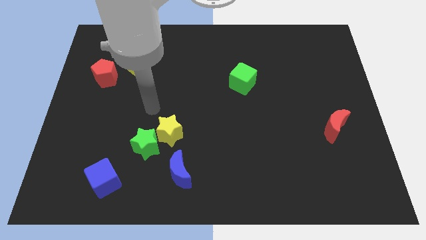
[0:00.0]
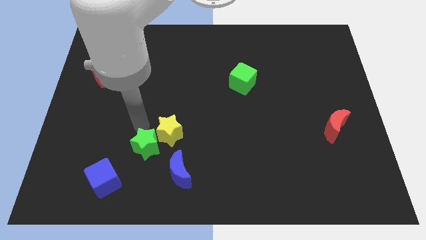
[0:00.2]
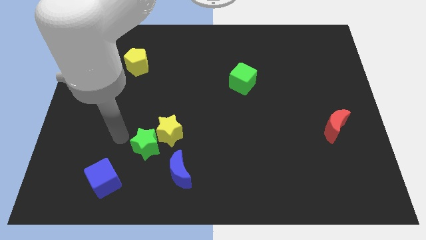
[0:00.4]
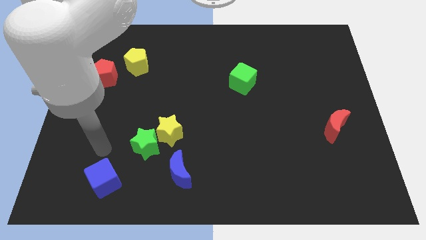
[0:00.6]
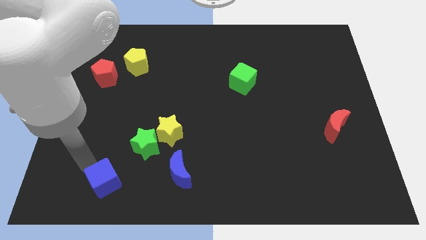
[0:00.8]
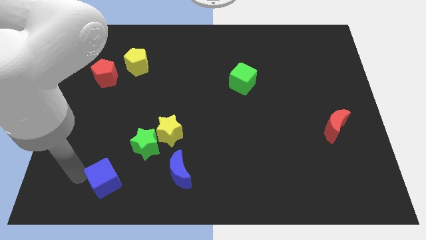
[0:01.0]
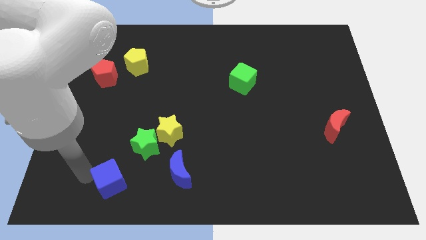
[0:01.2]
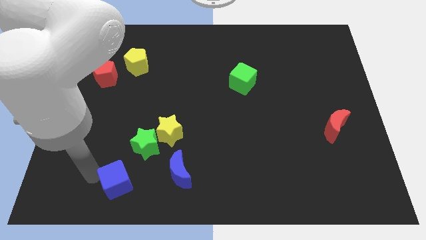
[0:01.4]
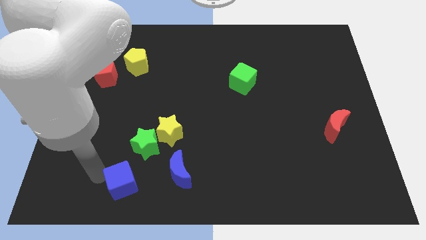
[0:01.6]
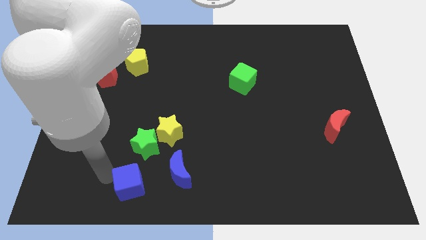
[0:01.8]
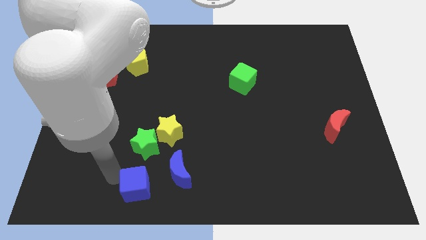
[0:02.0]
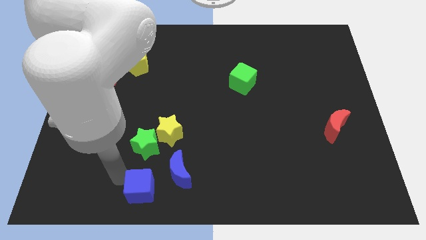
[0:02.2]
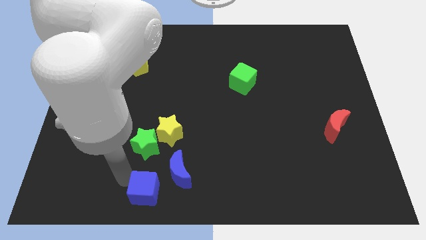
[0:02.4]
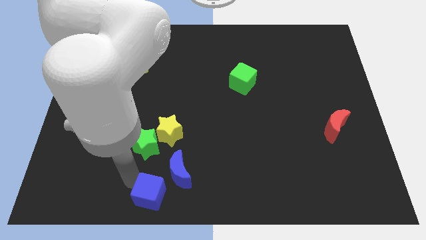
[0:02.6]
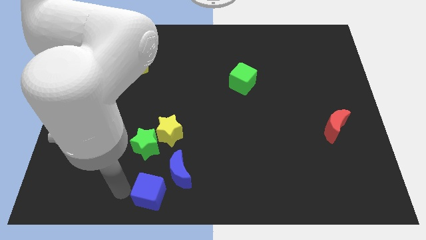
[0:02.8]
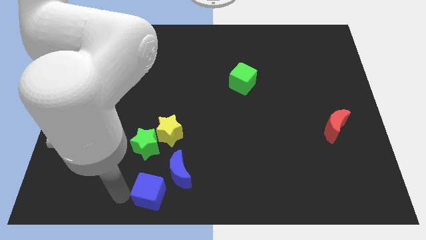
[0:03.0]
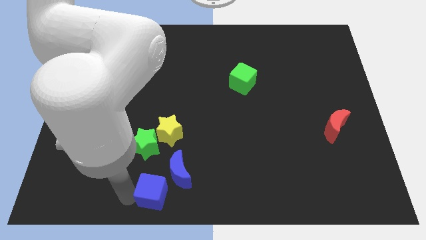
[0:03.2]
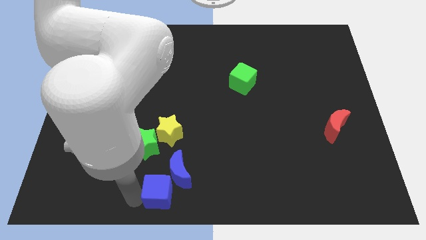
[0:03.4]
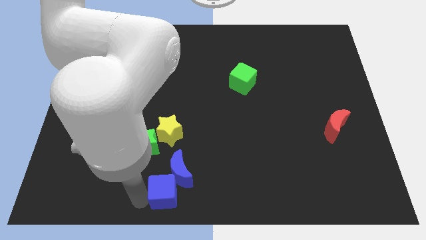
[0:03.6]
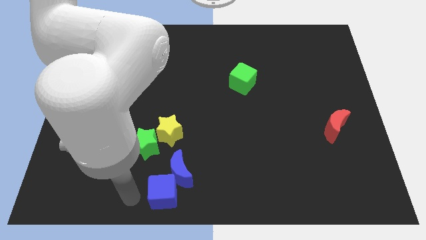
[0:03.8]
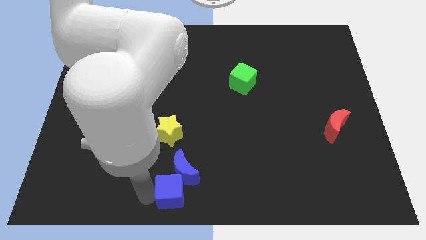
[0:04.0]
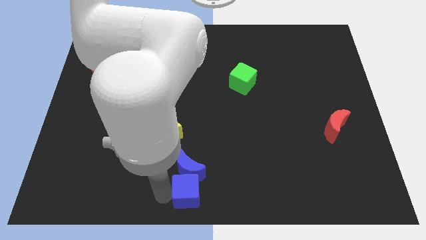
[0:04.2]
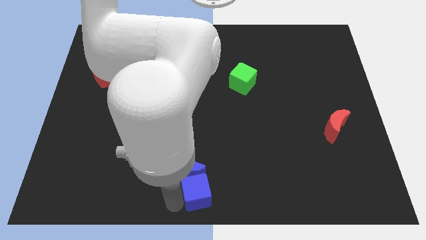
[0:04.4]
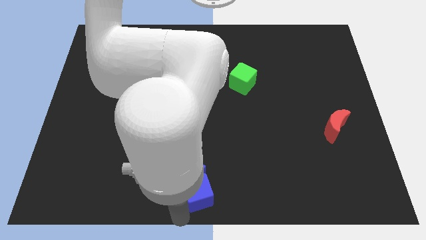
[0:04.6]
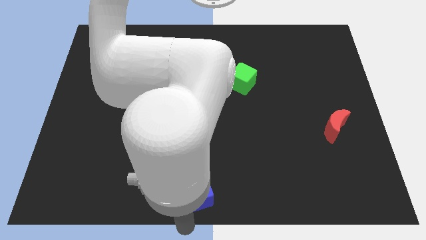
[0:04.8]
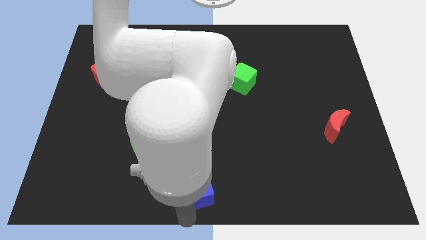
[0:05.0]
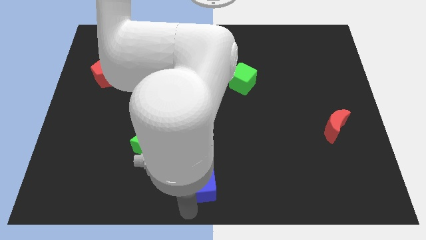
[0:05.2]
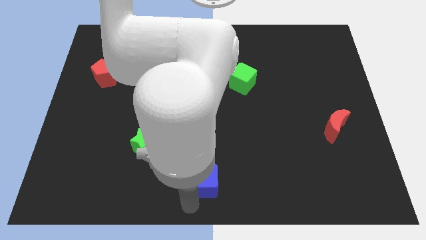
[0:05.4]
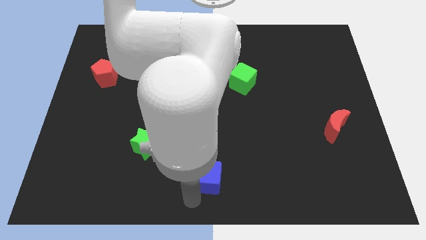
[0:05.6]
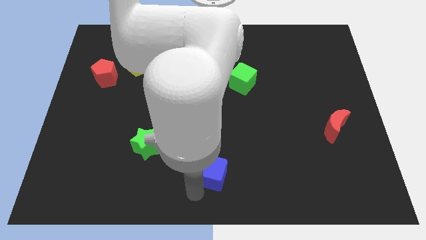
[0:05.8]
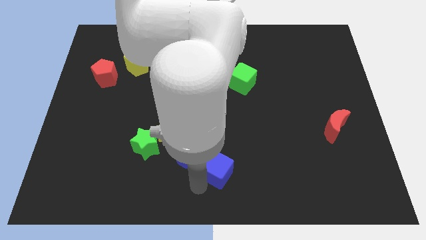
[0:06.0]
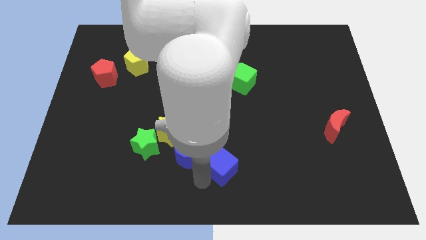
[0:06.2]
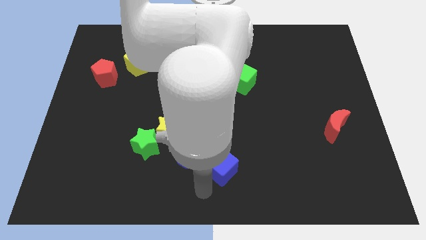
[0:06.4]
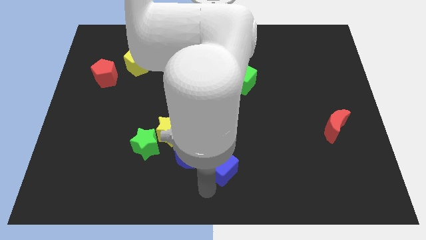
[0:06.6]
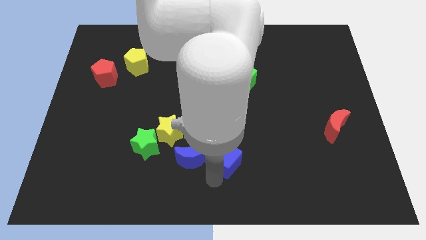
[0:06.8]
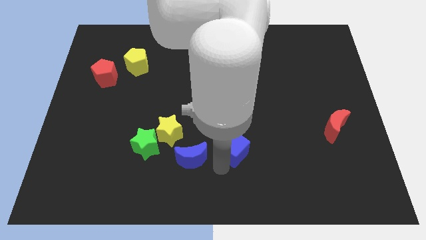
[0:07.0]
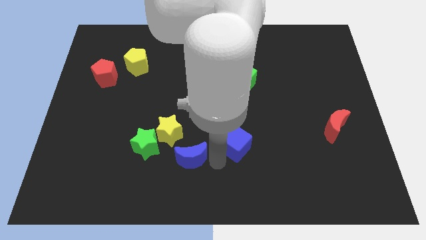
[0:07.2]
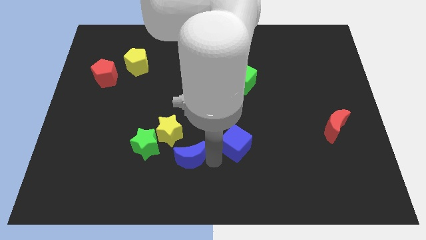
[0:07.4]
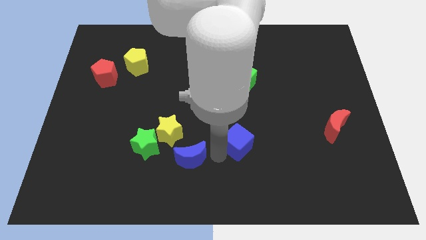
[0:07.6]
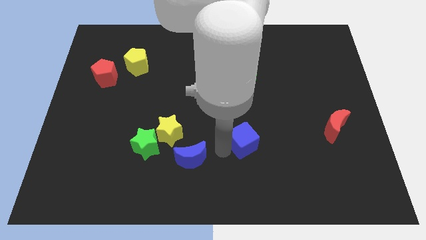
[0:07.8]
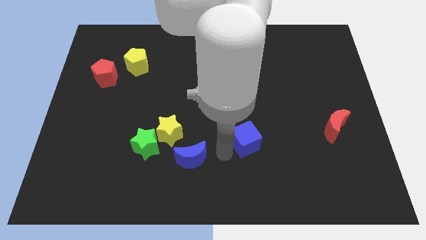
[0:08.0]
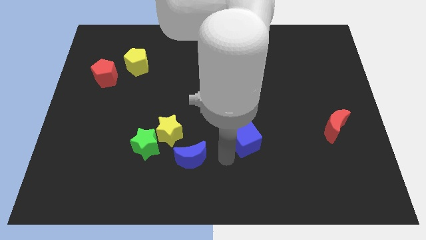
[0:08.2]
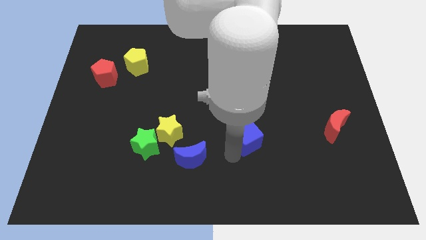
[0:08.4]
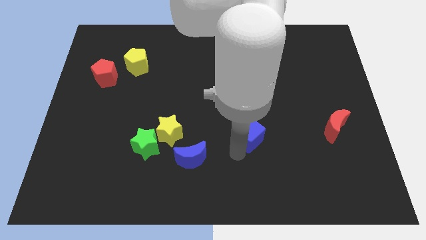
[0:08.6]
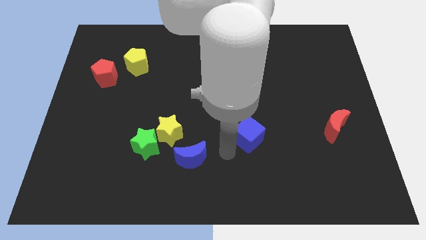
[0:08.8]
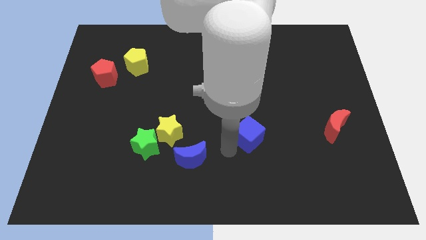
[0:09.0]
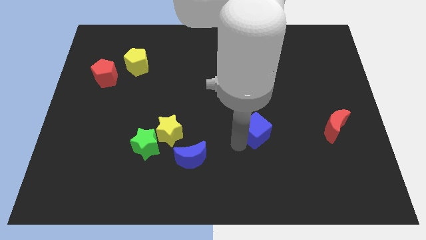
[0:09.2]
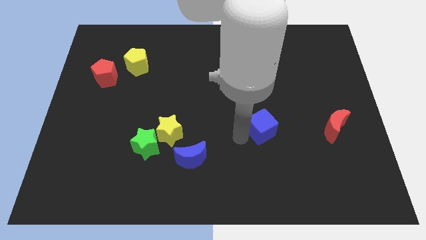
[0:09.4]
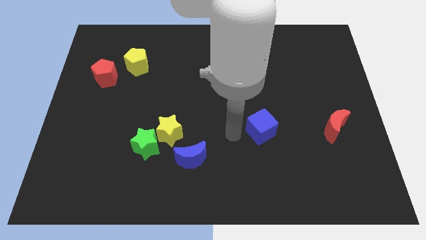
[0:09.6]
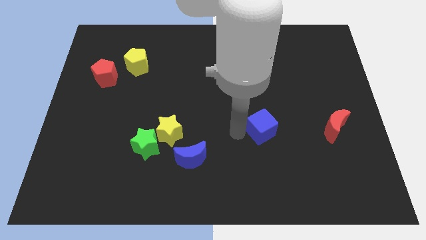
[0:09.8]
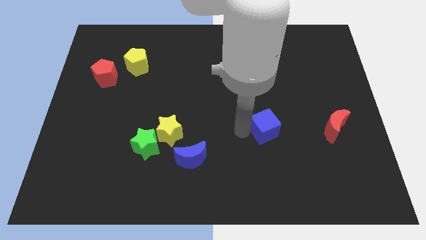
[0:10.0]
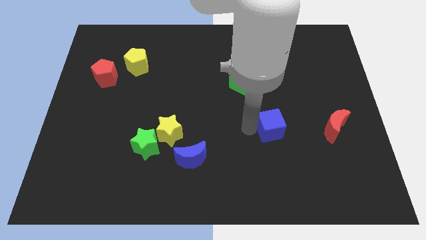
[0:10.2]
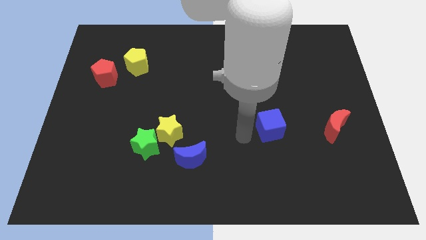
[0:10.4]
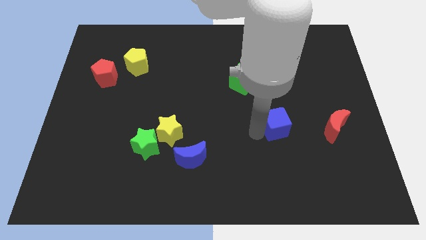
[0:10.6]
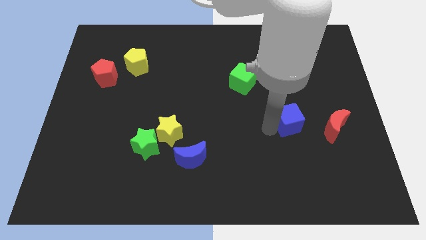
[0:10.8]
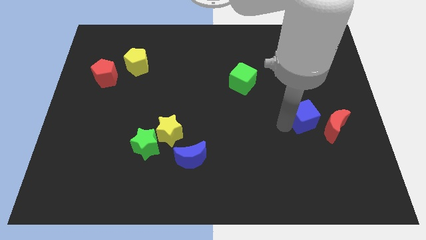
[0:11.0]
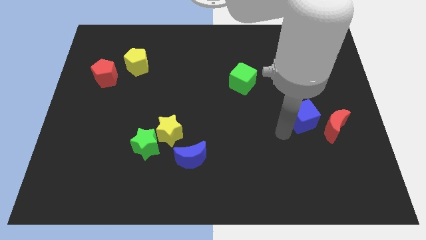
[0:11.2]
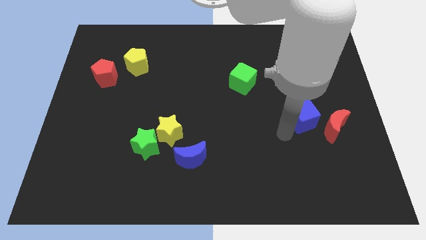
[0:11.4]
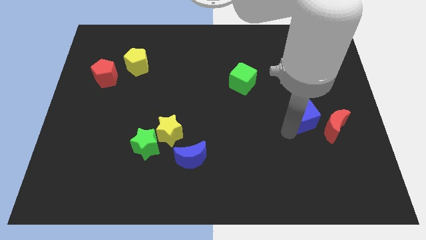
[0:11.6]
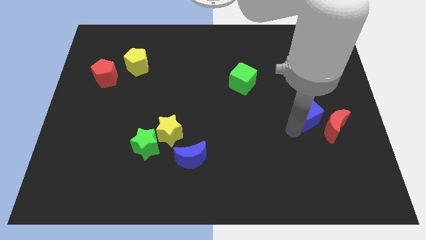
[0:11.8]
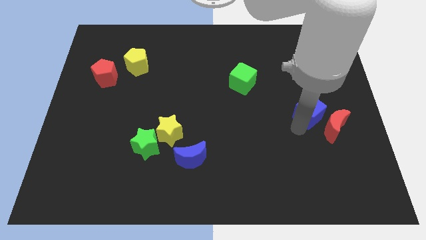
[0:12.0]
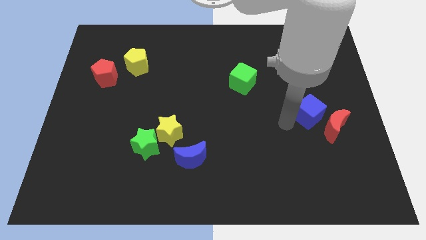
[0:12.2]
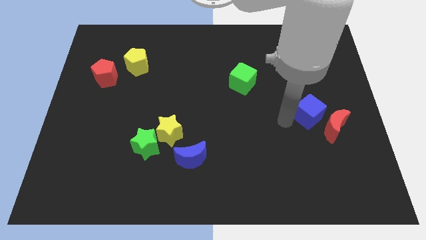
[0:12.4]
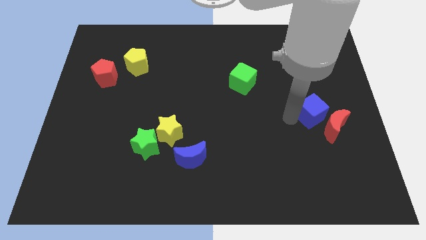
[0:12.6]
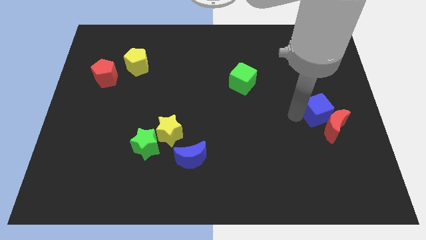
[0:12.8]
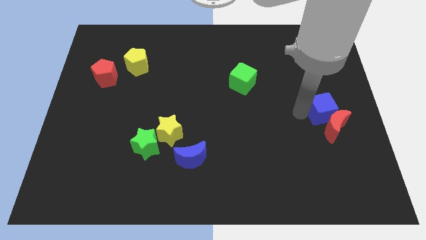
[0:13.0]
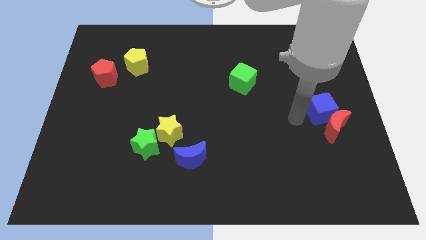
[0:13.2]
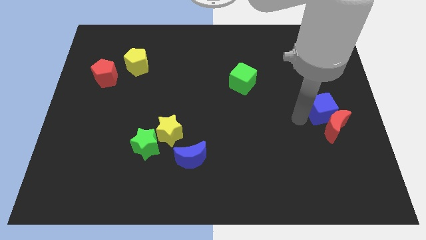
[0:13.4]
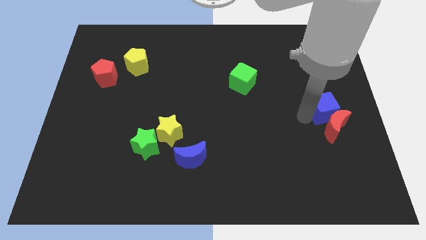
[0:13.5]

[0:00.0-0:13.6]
put the blue cube to the right side

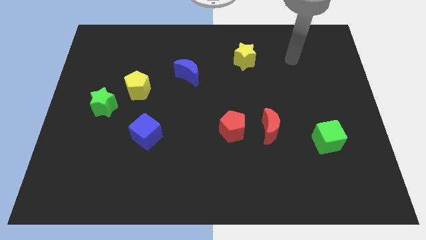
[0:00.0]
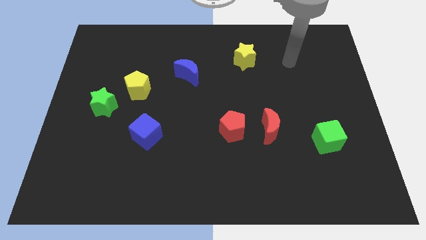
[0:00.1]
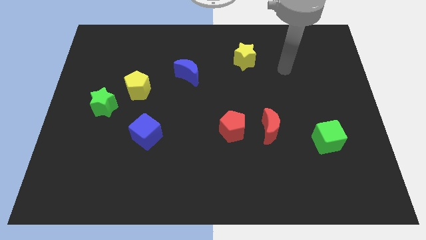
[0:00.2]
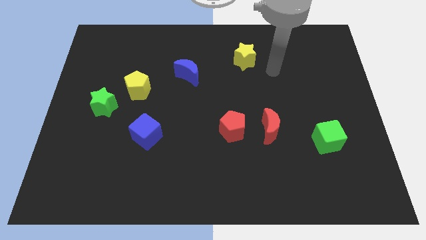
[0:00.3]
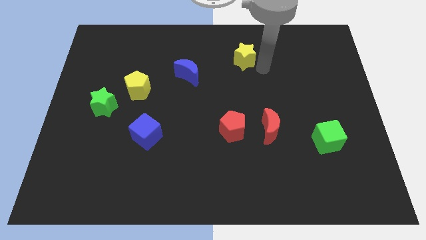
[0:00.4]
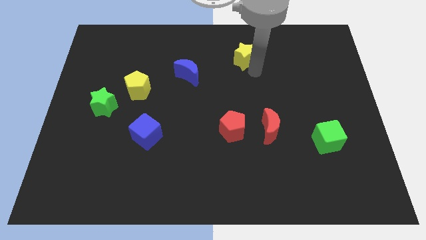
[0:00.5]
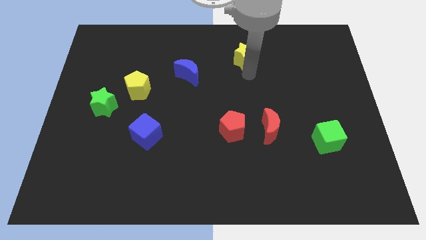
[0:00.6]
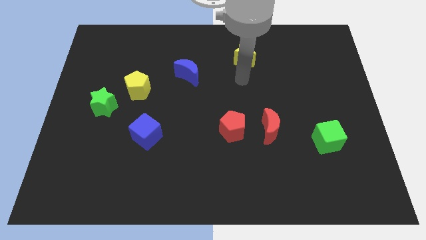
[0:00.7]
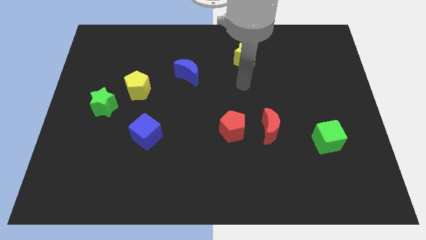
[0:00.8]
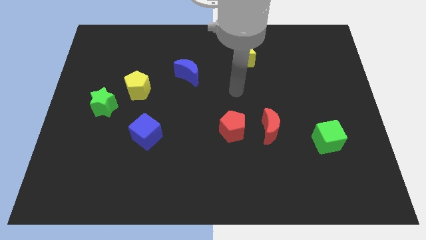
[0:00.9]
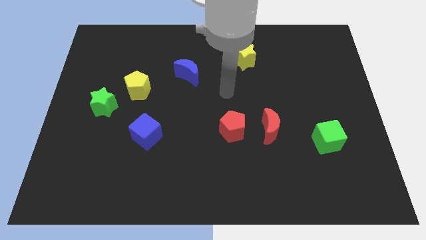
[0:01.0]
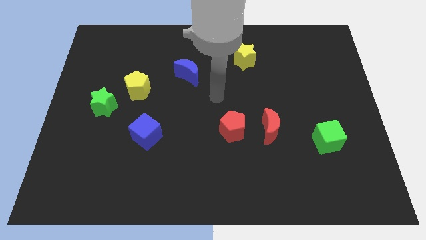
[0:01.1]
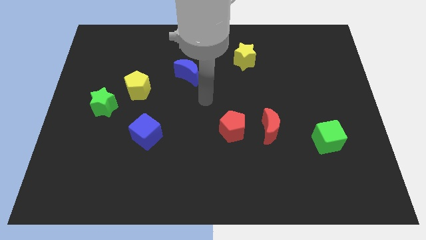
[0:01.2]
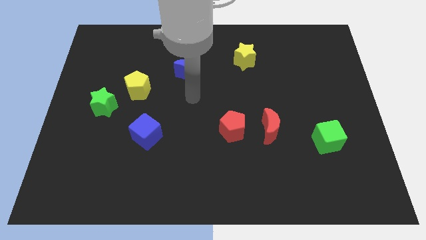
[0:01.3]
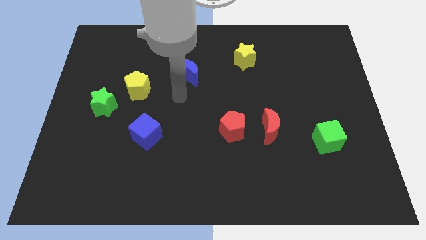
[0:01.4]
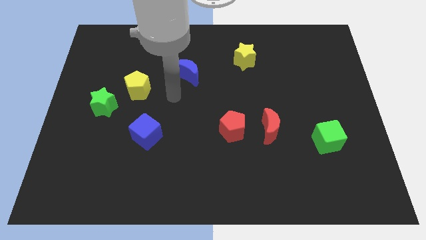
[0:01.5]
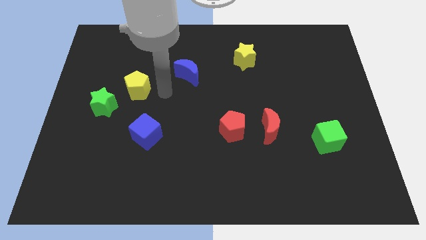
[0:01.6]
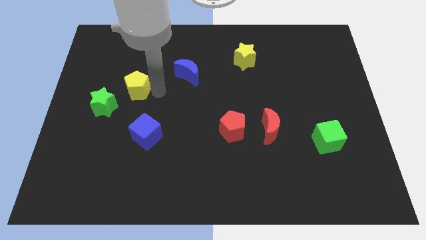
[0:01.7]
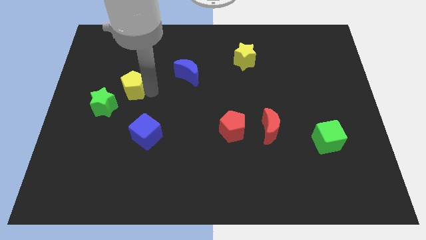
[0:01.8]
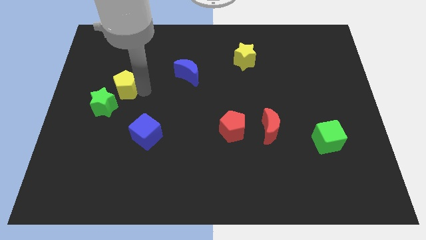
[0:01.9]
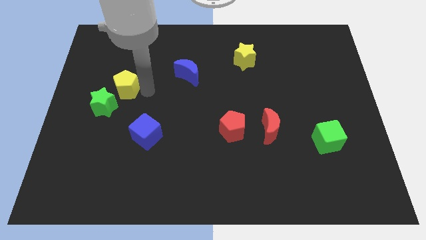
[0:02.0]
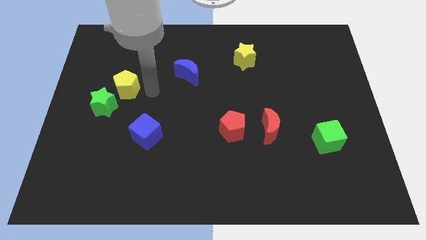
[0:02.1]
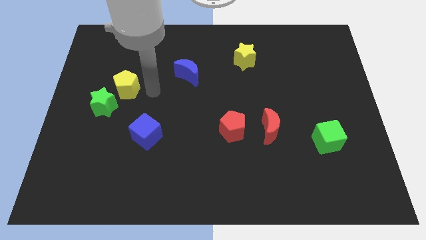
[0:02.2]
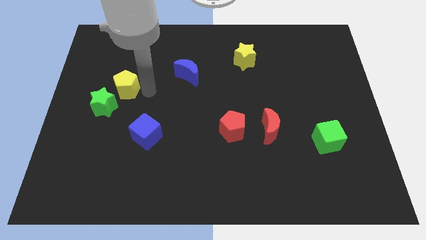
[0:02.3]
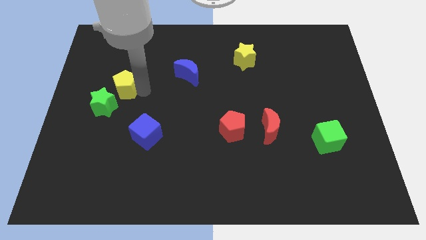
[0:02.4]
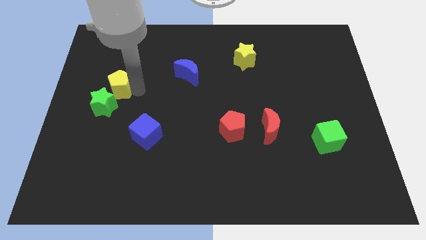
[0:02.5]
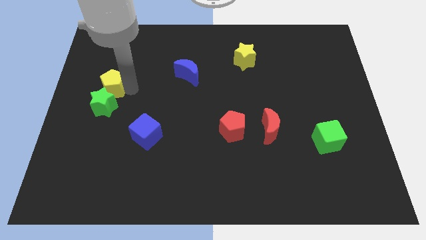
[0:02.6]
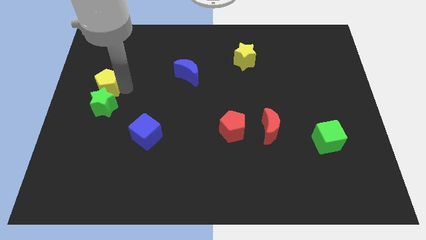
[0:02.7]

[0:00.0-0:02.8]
push the yellow pentagon to the left side
